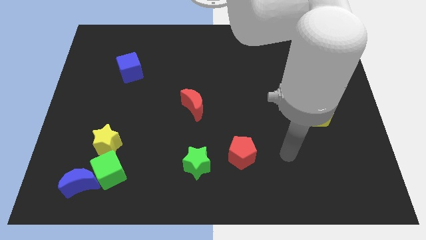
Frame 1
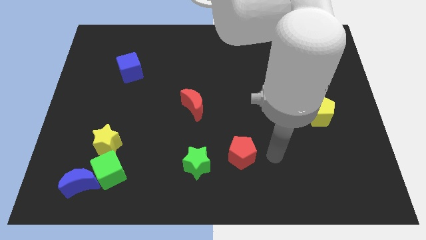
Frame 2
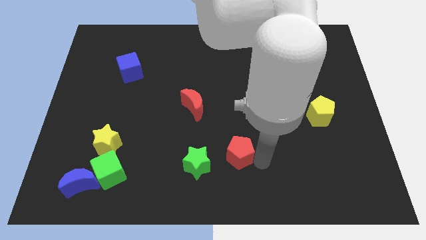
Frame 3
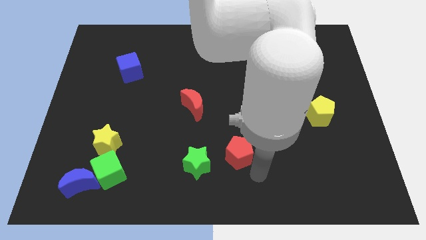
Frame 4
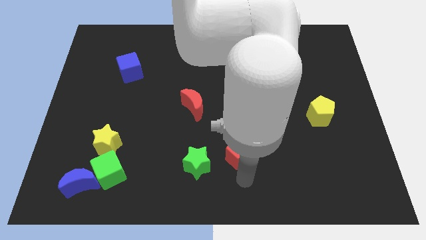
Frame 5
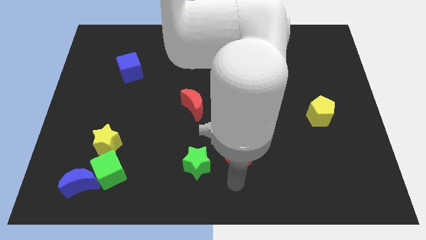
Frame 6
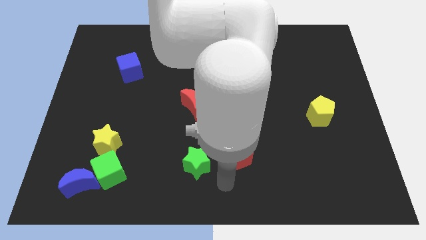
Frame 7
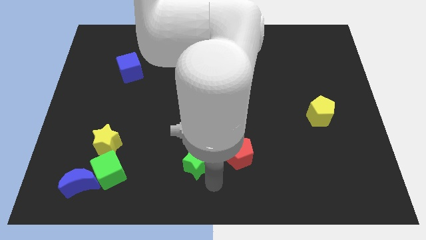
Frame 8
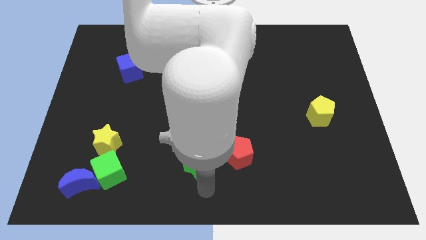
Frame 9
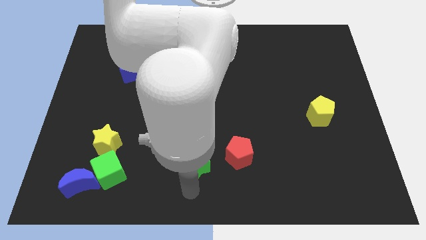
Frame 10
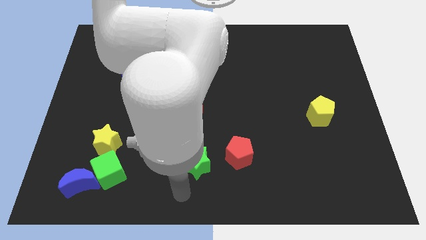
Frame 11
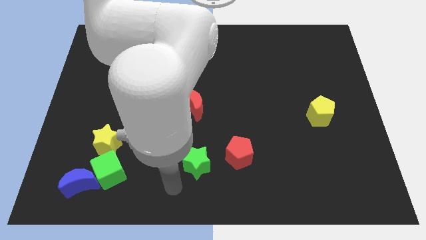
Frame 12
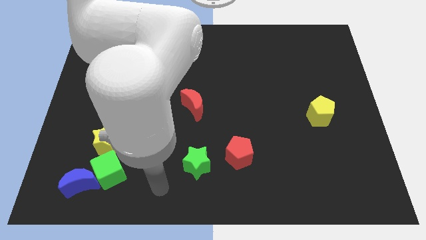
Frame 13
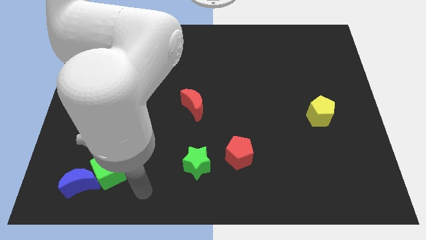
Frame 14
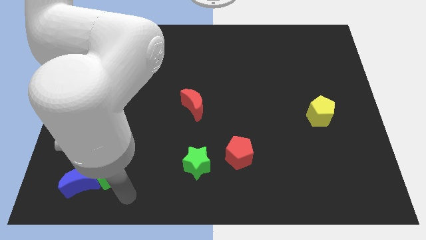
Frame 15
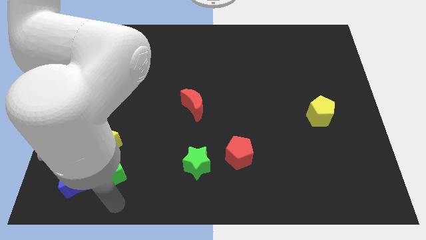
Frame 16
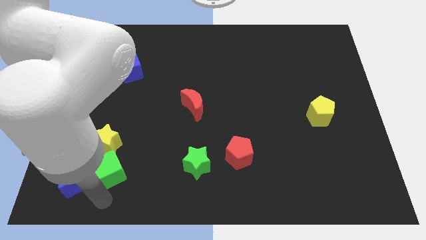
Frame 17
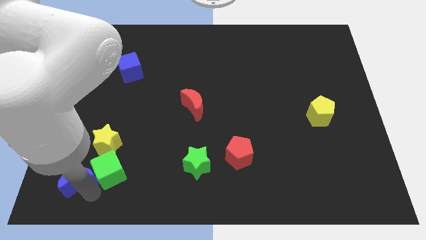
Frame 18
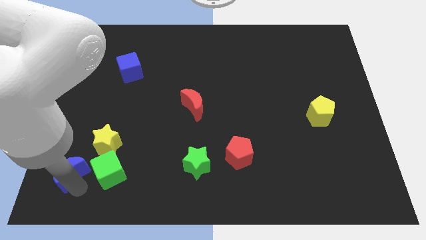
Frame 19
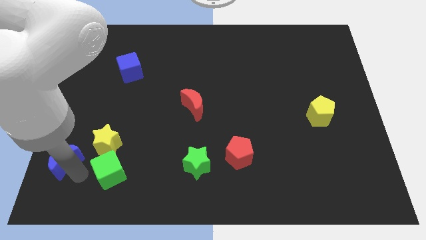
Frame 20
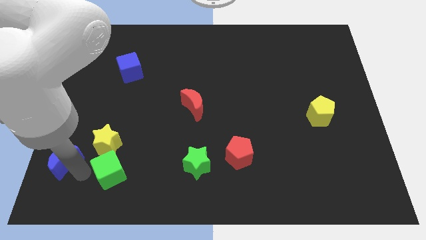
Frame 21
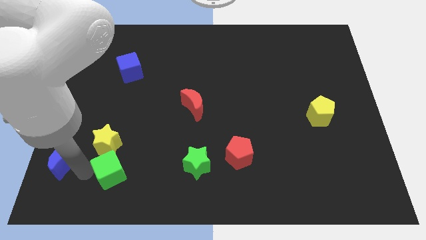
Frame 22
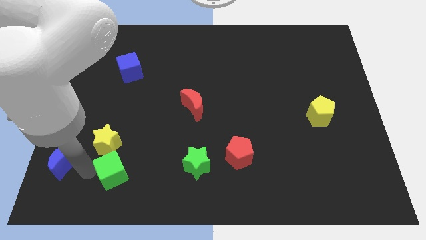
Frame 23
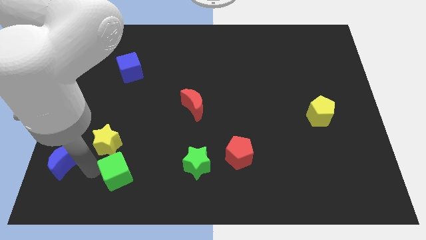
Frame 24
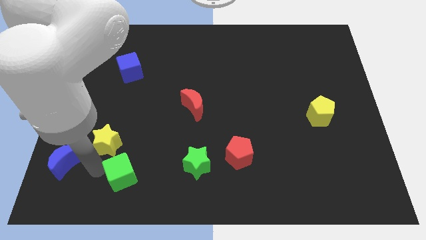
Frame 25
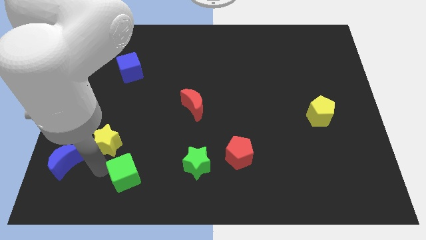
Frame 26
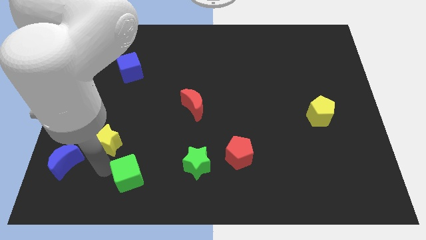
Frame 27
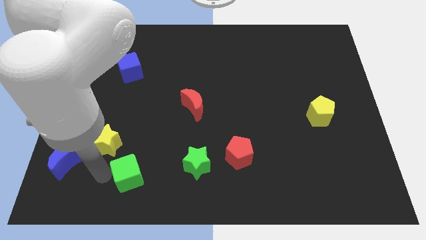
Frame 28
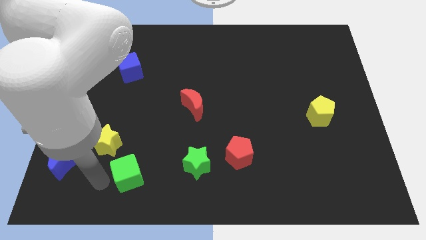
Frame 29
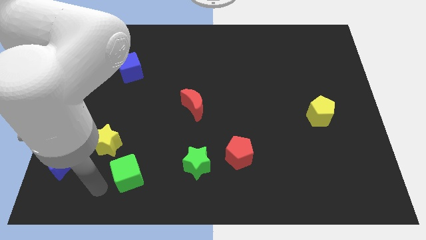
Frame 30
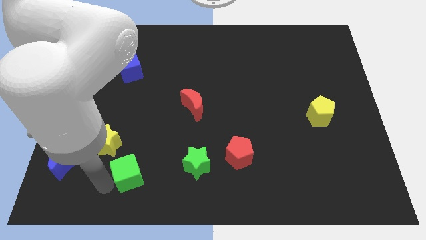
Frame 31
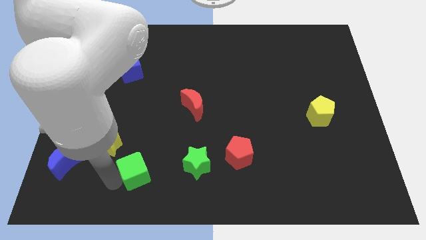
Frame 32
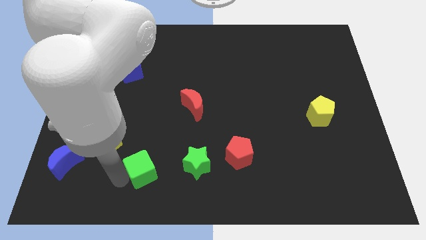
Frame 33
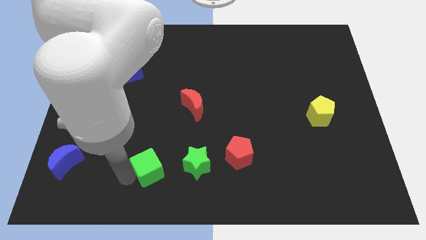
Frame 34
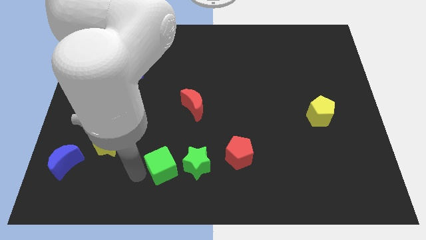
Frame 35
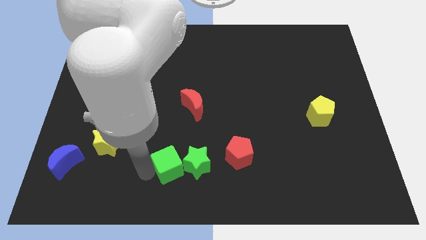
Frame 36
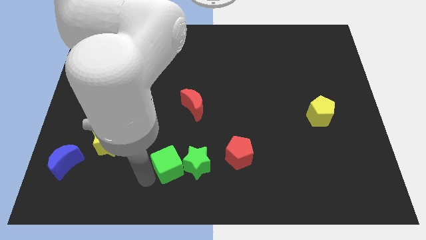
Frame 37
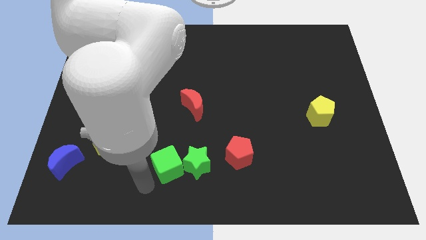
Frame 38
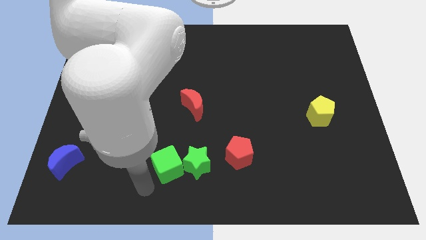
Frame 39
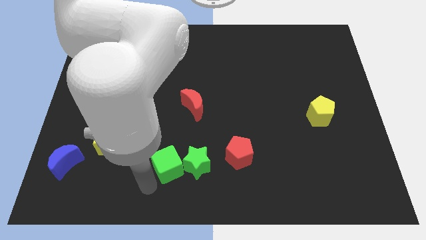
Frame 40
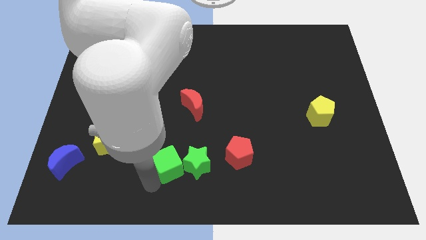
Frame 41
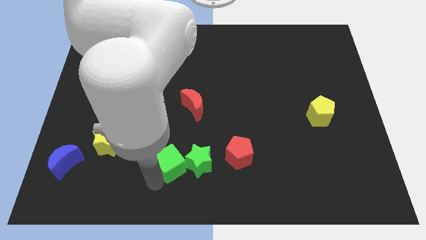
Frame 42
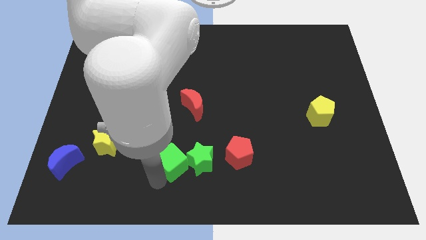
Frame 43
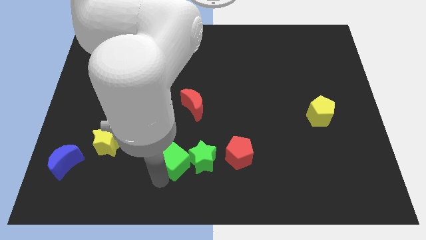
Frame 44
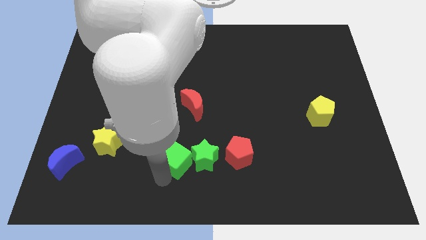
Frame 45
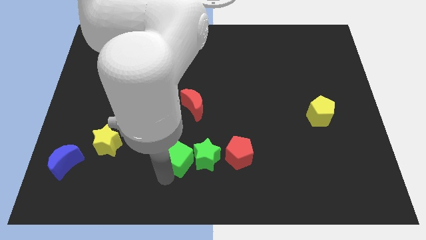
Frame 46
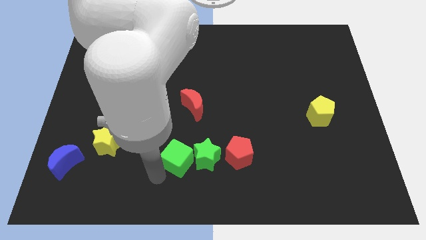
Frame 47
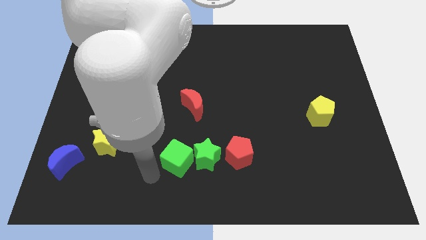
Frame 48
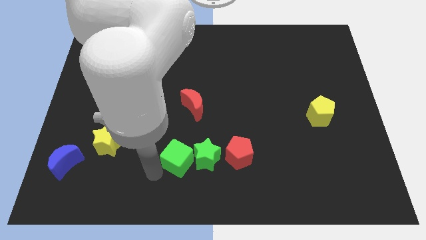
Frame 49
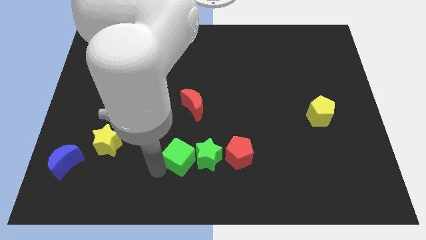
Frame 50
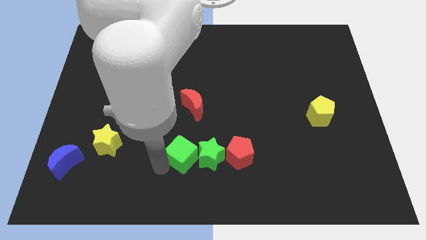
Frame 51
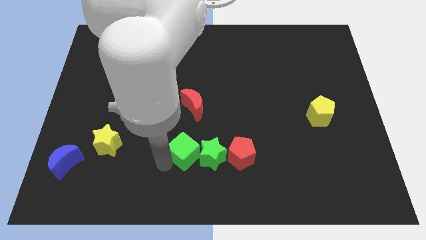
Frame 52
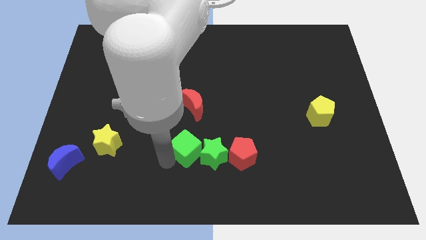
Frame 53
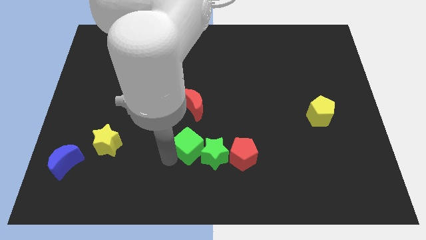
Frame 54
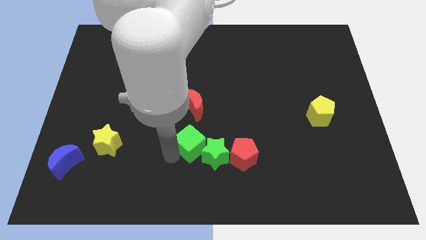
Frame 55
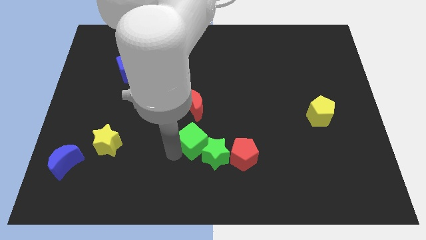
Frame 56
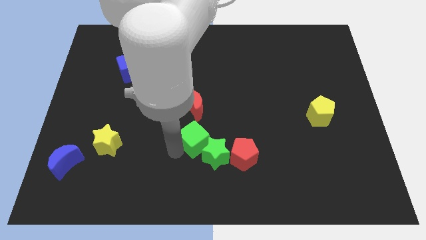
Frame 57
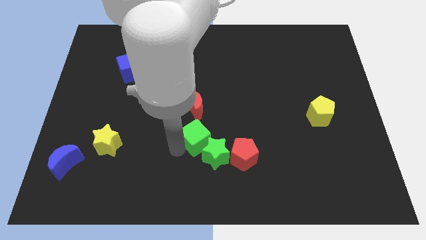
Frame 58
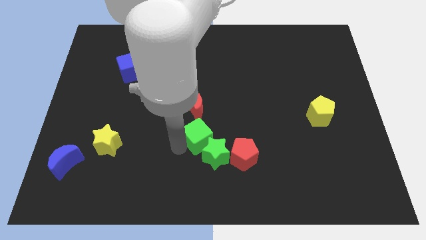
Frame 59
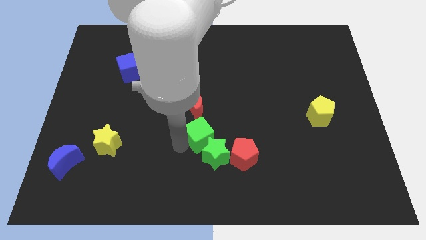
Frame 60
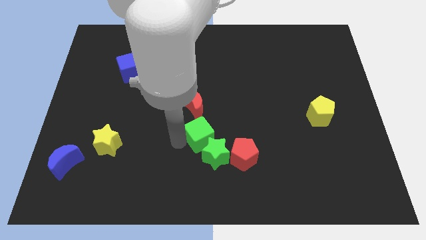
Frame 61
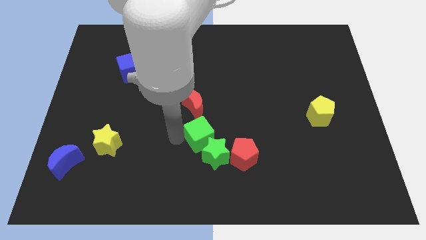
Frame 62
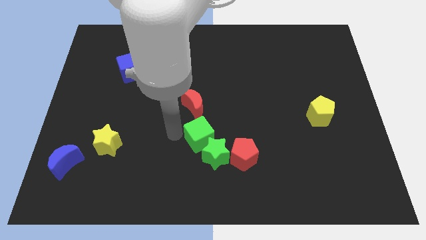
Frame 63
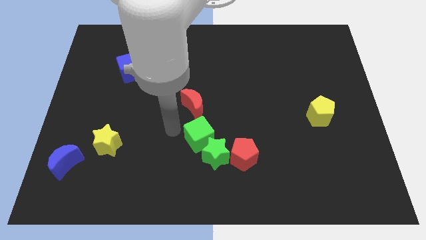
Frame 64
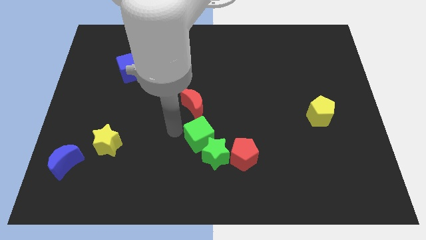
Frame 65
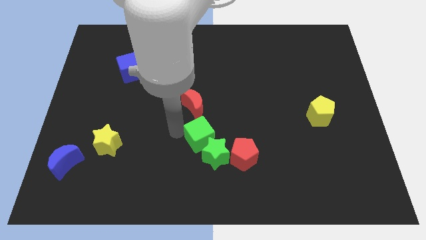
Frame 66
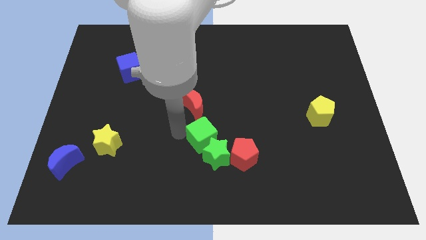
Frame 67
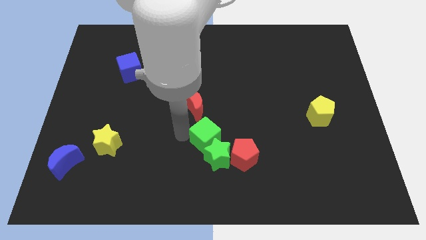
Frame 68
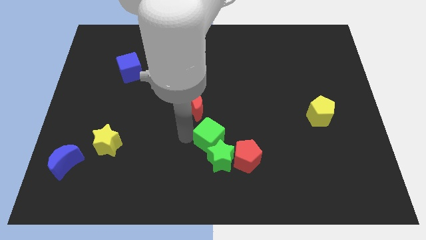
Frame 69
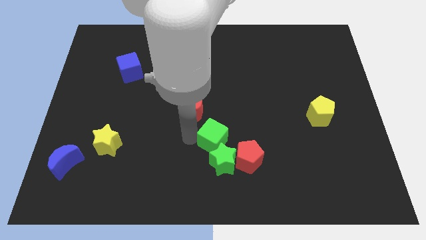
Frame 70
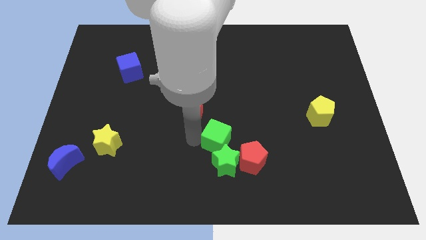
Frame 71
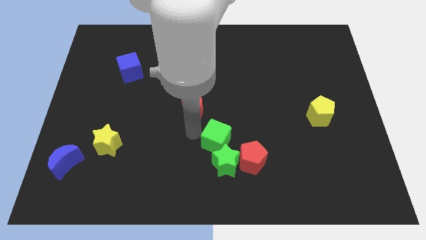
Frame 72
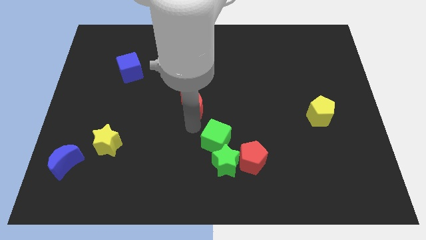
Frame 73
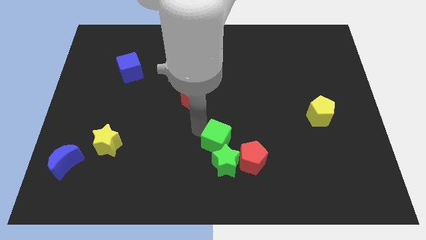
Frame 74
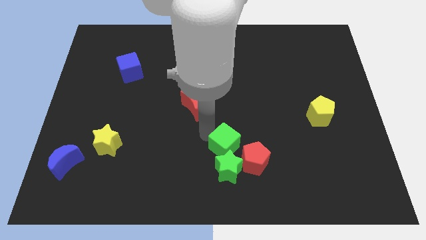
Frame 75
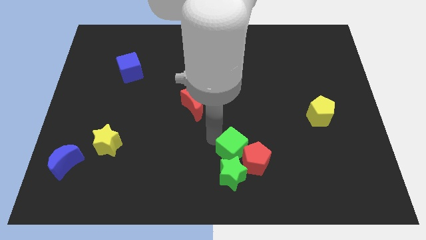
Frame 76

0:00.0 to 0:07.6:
push the green cube to the red pentagon
